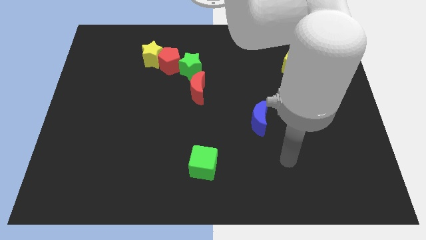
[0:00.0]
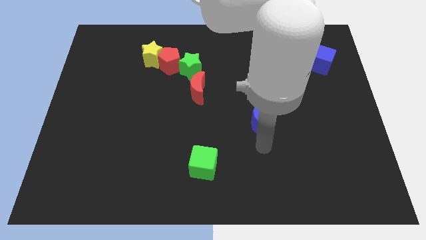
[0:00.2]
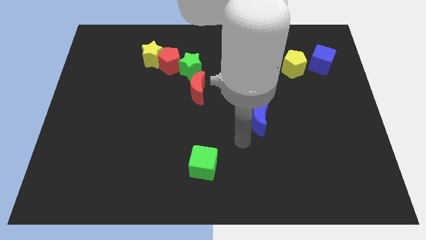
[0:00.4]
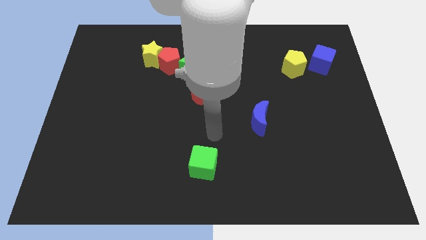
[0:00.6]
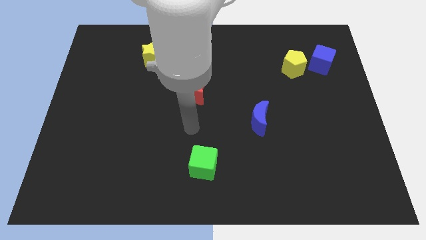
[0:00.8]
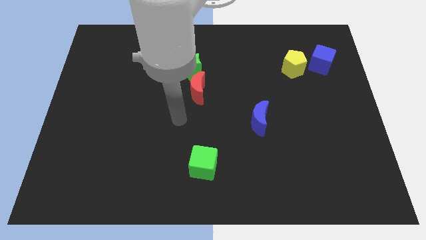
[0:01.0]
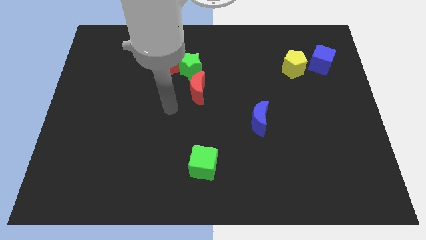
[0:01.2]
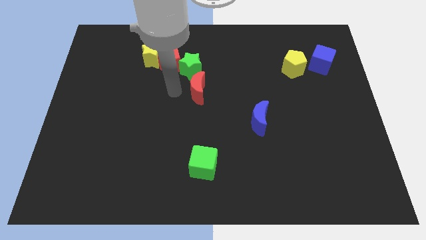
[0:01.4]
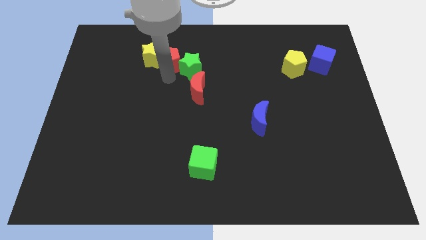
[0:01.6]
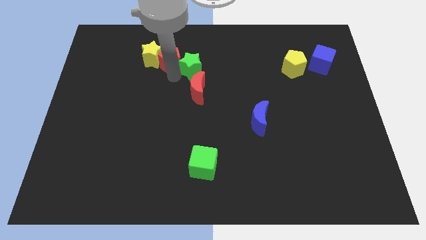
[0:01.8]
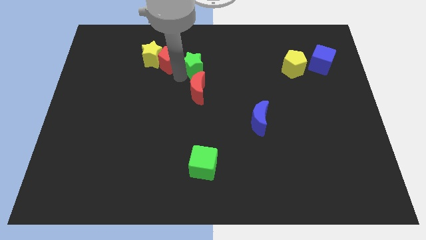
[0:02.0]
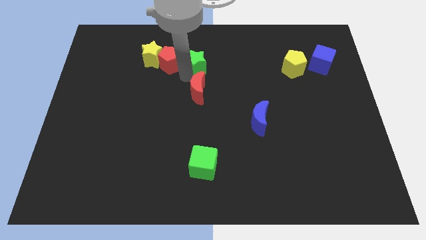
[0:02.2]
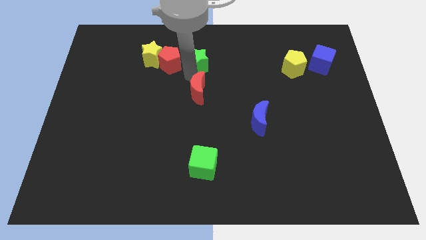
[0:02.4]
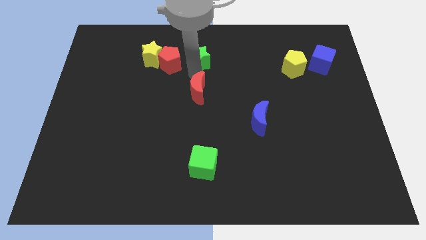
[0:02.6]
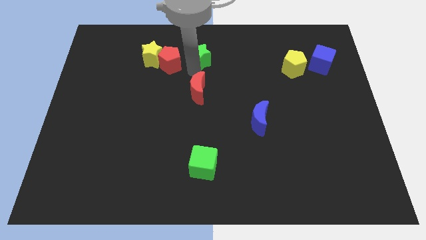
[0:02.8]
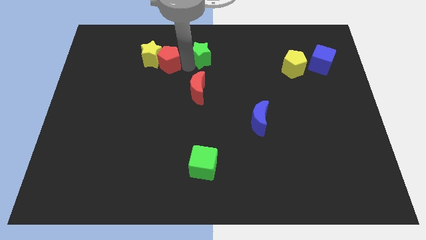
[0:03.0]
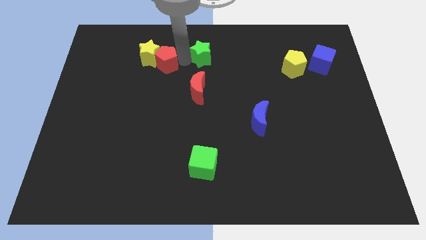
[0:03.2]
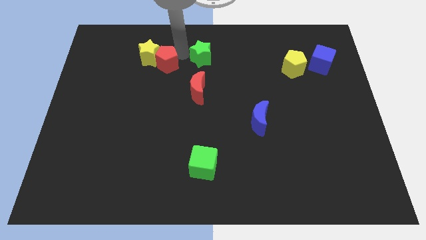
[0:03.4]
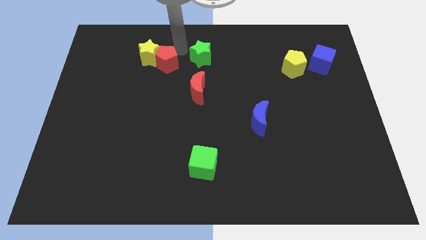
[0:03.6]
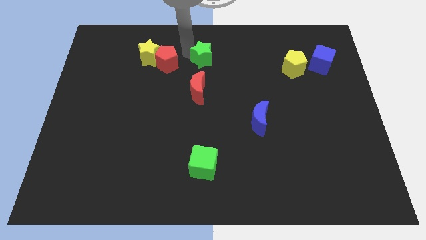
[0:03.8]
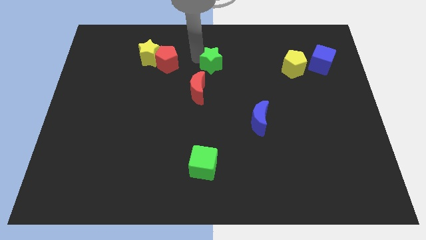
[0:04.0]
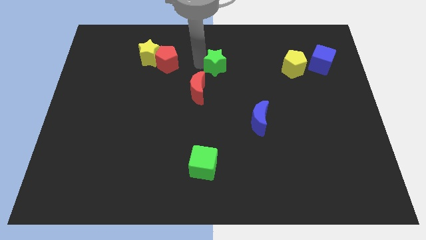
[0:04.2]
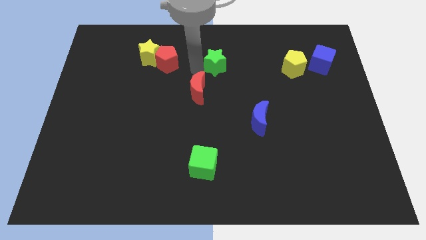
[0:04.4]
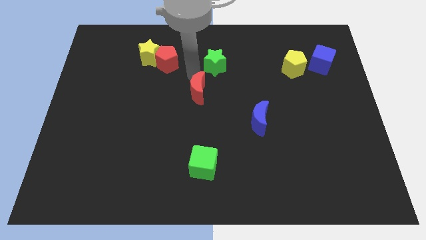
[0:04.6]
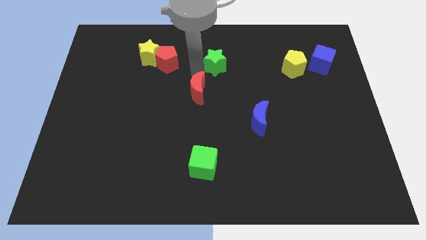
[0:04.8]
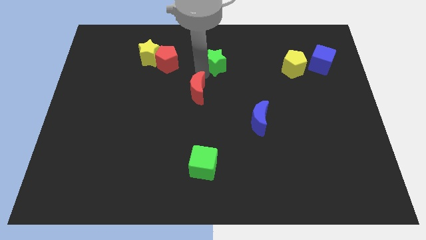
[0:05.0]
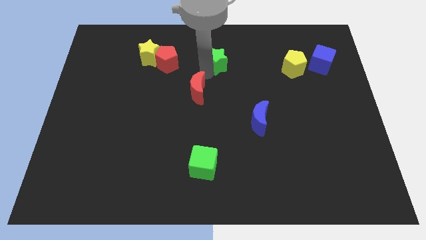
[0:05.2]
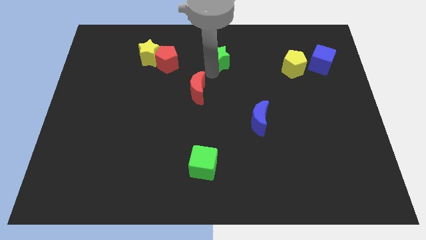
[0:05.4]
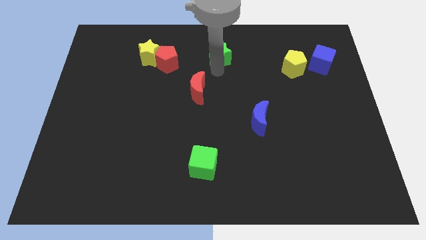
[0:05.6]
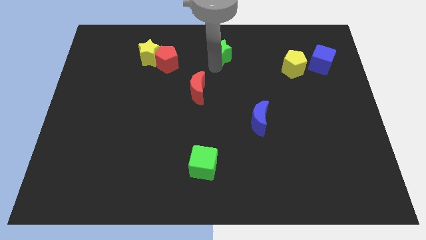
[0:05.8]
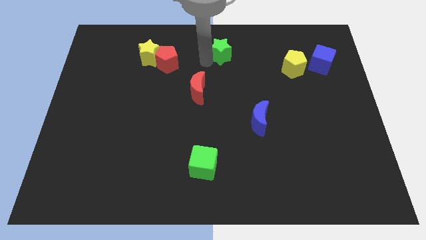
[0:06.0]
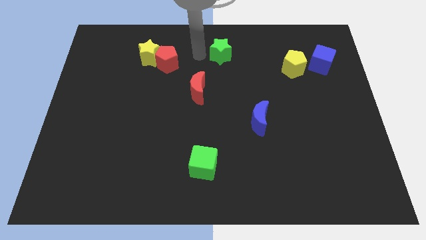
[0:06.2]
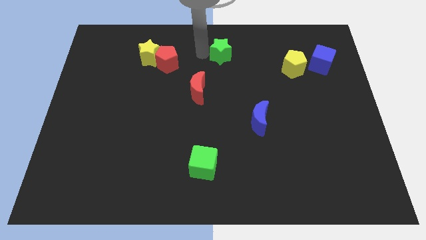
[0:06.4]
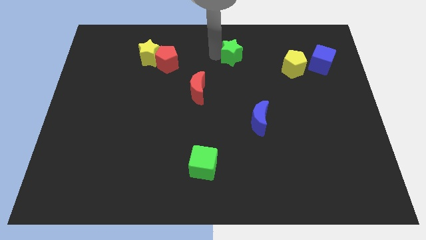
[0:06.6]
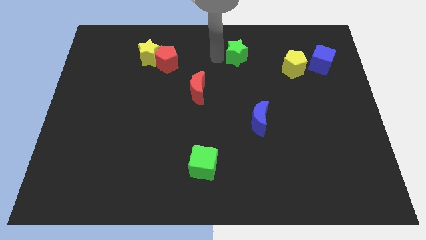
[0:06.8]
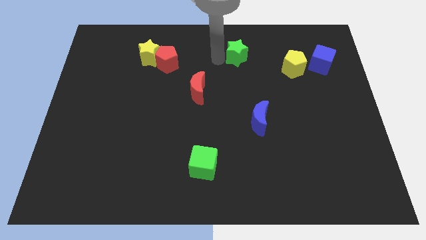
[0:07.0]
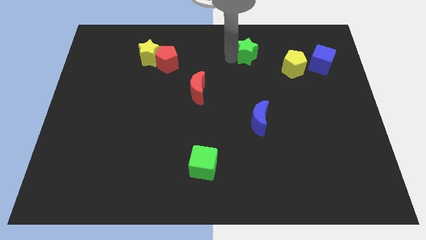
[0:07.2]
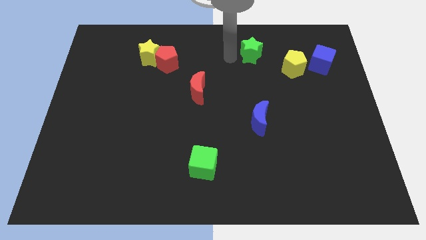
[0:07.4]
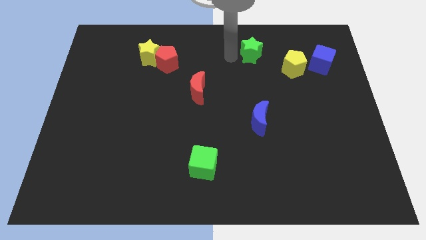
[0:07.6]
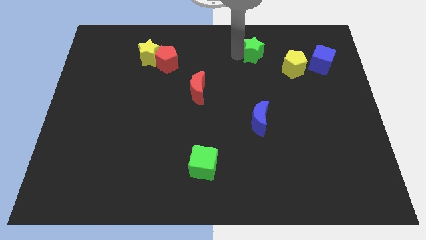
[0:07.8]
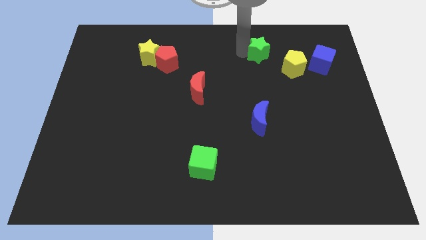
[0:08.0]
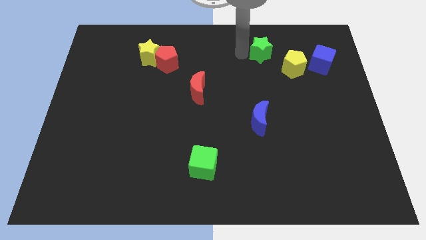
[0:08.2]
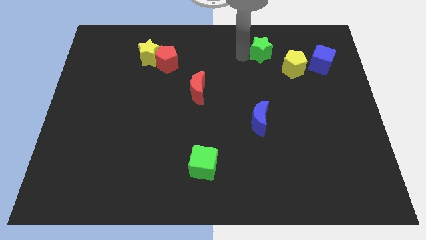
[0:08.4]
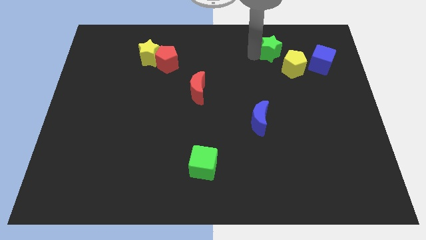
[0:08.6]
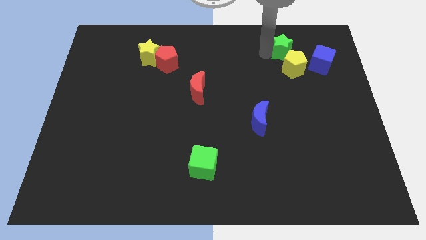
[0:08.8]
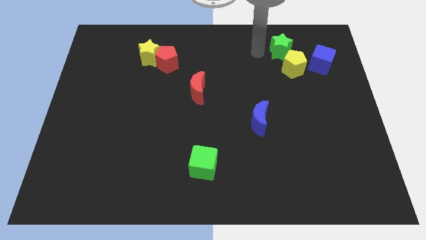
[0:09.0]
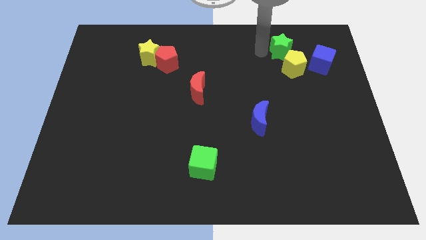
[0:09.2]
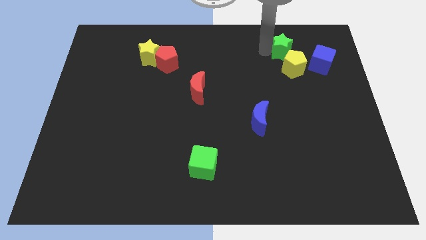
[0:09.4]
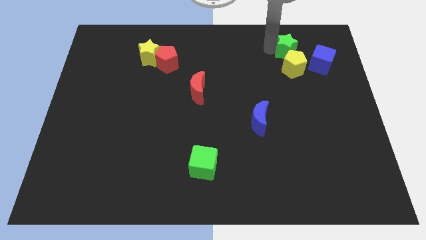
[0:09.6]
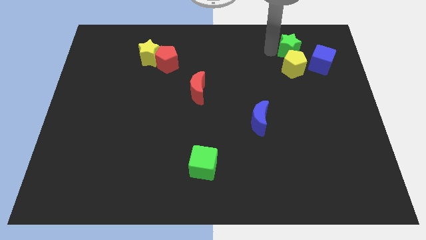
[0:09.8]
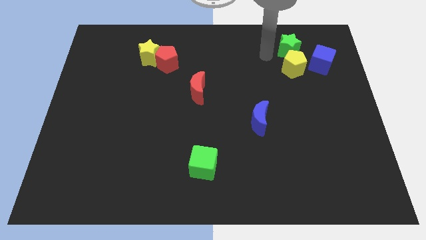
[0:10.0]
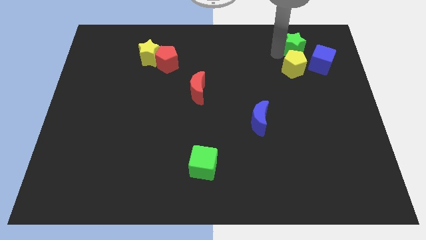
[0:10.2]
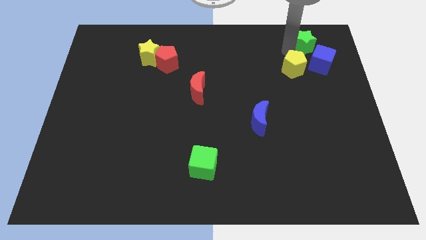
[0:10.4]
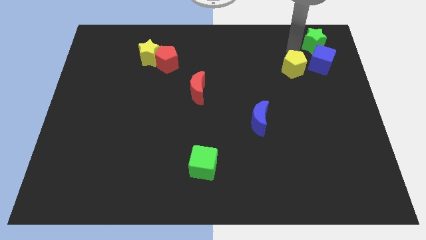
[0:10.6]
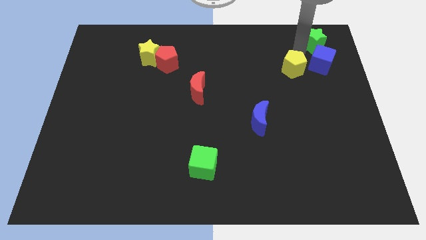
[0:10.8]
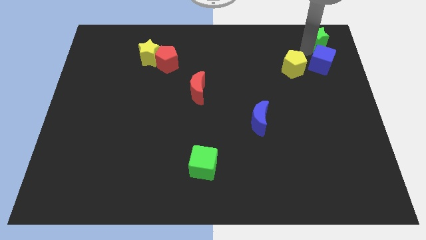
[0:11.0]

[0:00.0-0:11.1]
push the green star to the top right corner

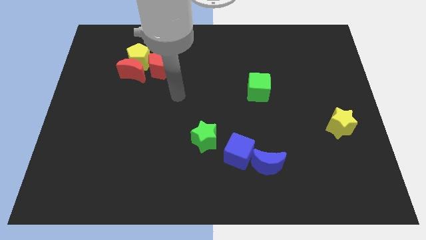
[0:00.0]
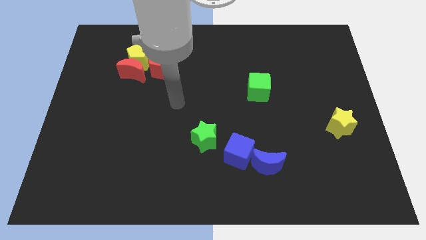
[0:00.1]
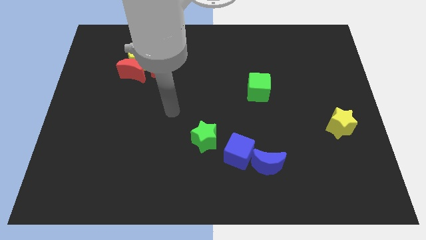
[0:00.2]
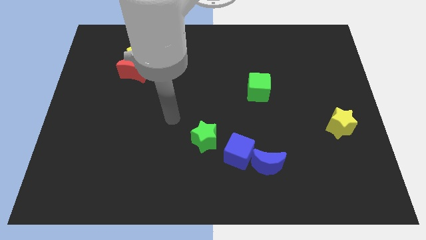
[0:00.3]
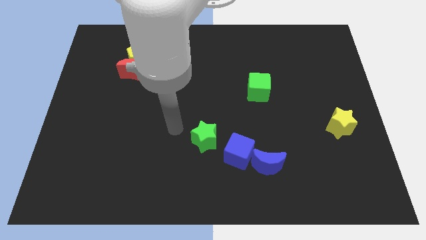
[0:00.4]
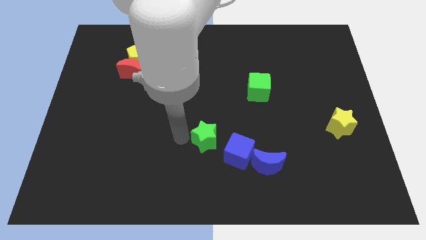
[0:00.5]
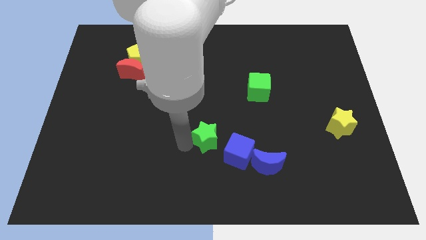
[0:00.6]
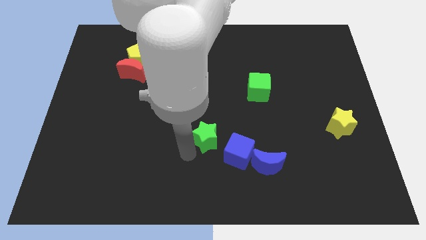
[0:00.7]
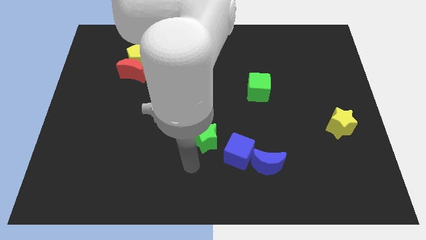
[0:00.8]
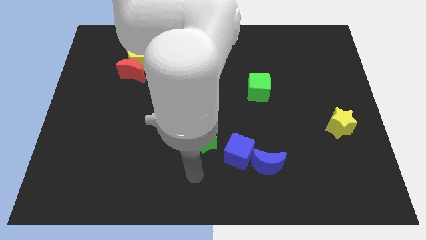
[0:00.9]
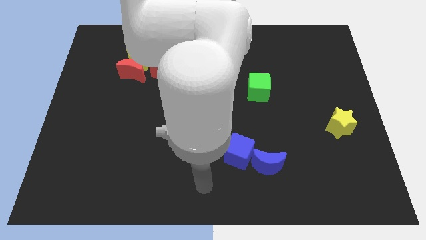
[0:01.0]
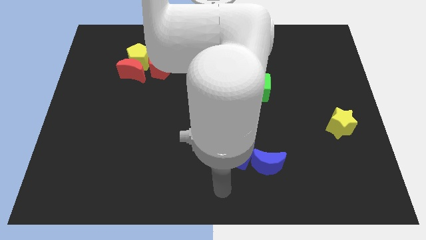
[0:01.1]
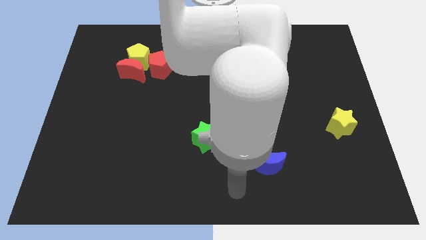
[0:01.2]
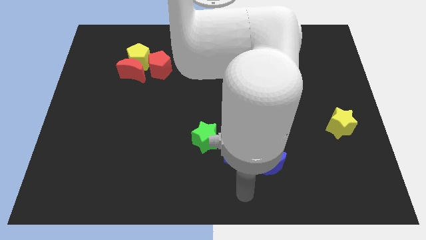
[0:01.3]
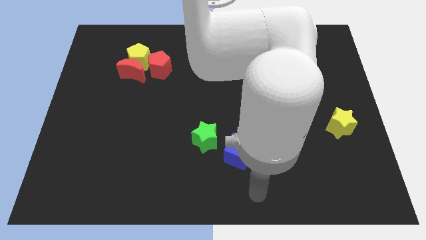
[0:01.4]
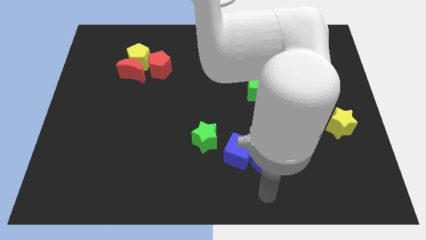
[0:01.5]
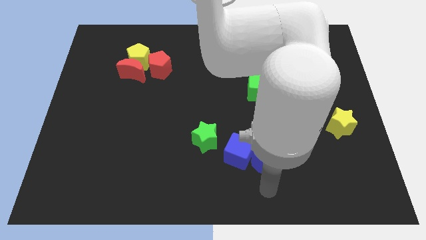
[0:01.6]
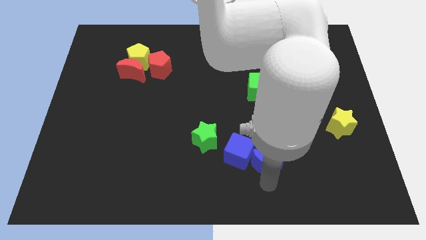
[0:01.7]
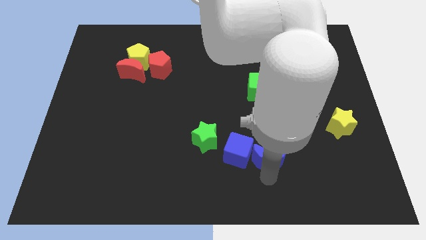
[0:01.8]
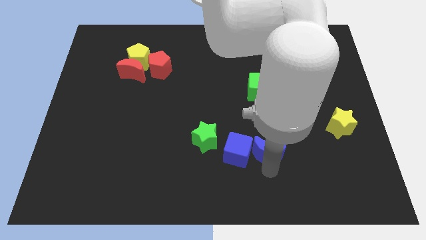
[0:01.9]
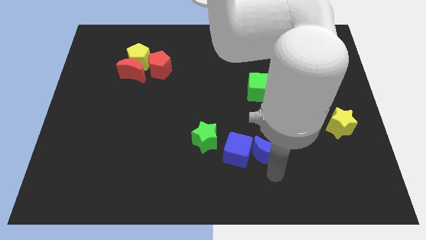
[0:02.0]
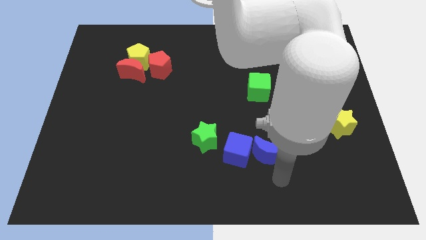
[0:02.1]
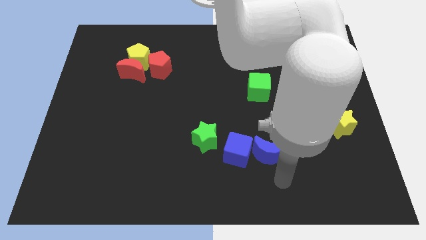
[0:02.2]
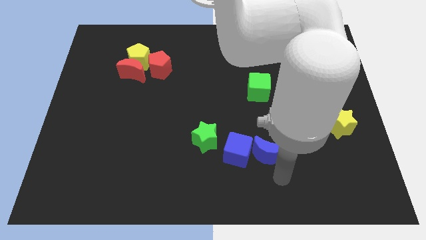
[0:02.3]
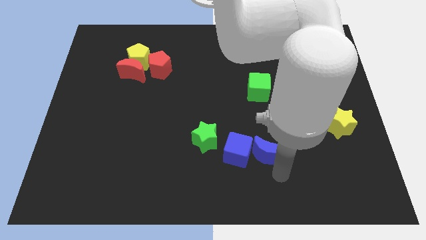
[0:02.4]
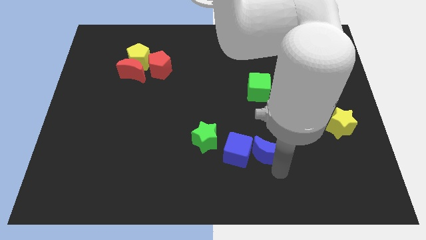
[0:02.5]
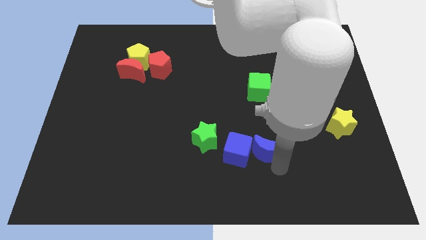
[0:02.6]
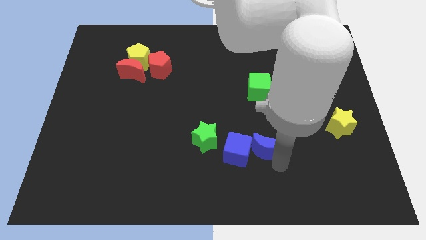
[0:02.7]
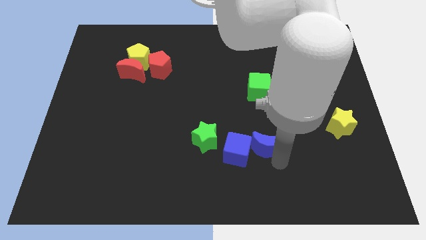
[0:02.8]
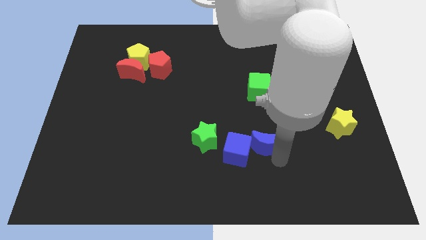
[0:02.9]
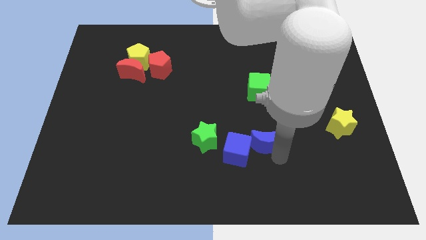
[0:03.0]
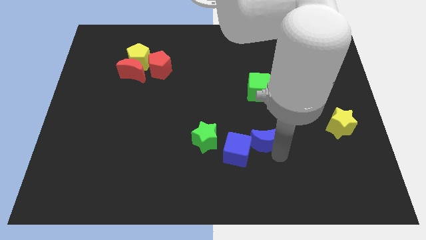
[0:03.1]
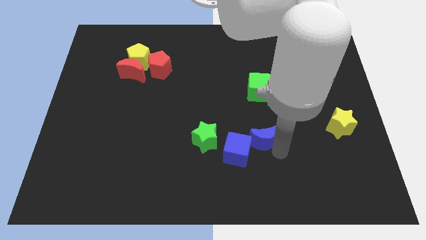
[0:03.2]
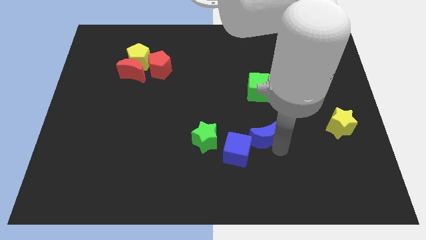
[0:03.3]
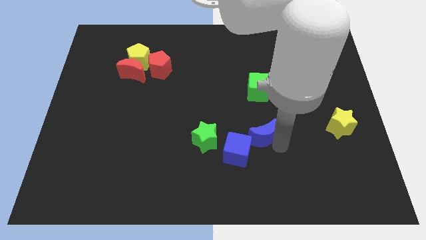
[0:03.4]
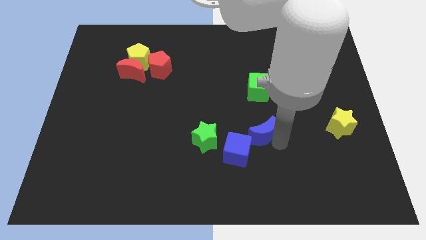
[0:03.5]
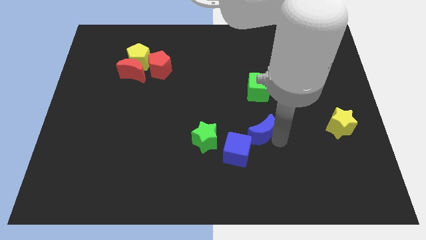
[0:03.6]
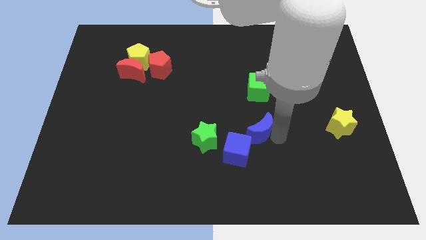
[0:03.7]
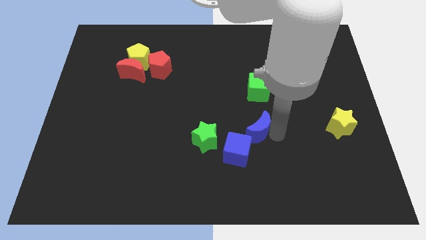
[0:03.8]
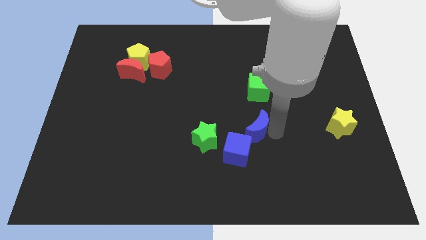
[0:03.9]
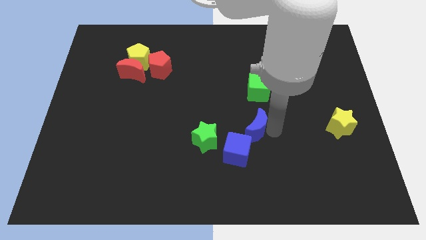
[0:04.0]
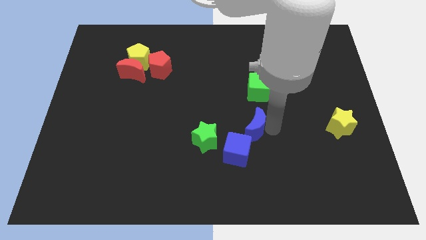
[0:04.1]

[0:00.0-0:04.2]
push the blue moon to the middle of the board
